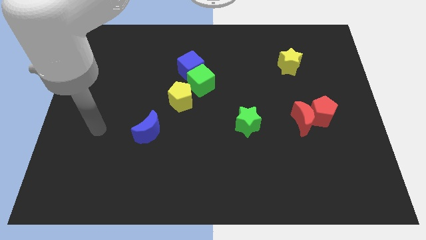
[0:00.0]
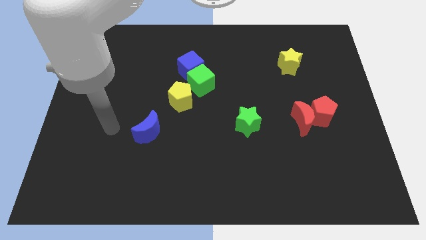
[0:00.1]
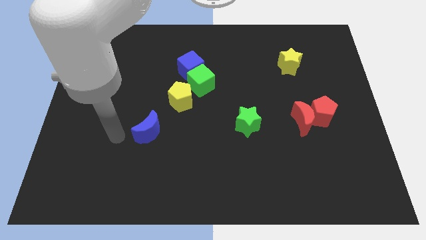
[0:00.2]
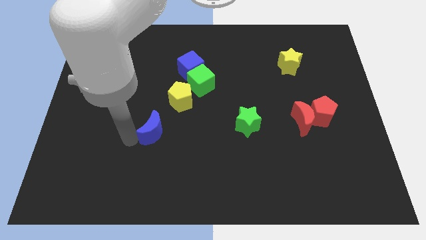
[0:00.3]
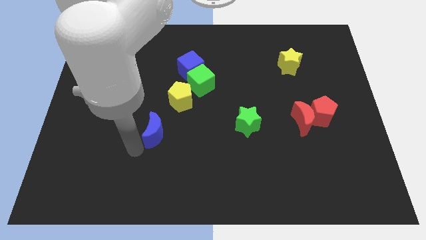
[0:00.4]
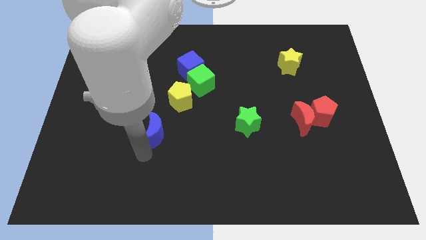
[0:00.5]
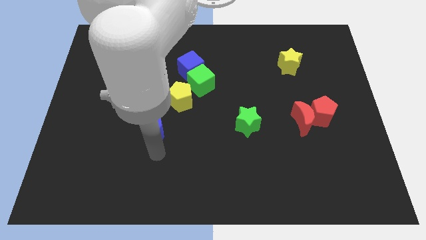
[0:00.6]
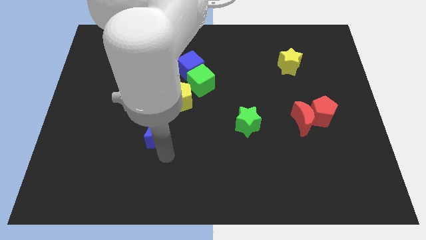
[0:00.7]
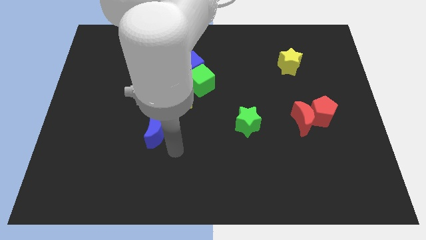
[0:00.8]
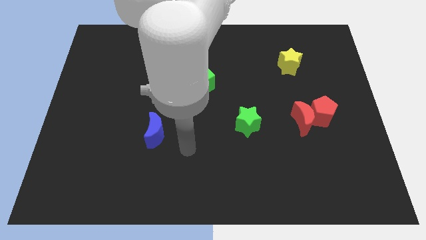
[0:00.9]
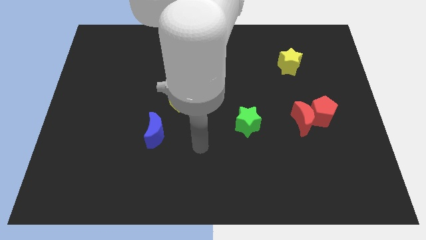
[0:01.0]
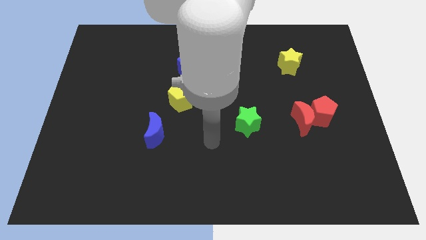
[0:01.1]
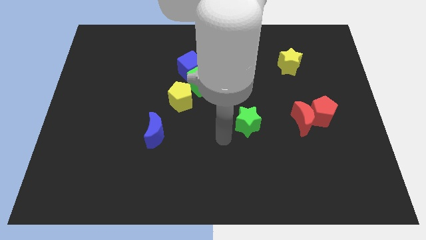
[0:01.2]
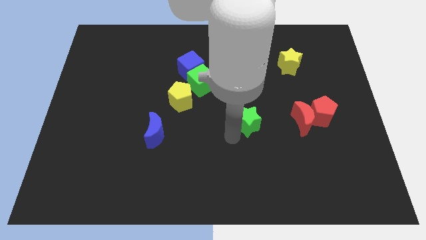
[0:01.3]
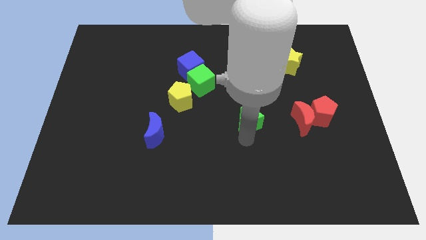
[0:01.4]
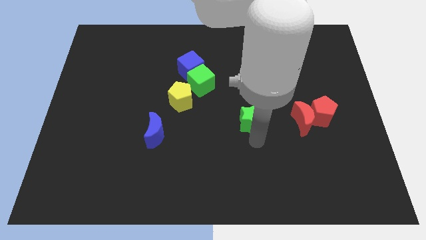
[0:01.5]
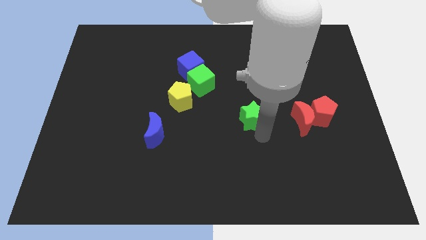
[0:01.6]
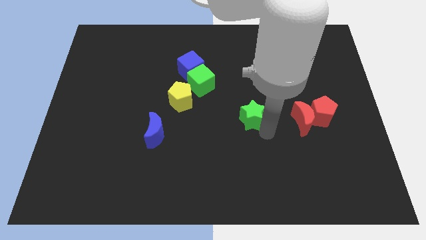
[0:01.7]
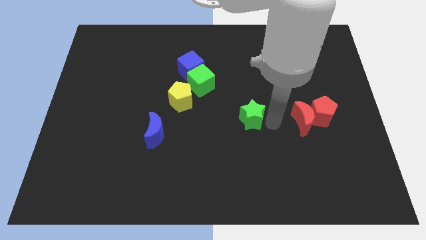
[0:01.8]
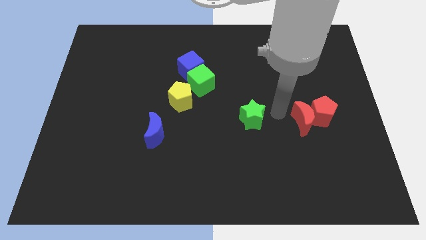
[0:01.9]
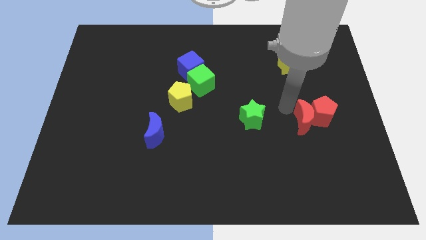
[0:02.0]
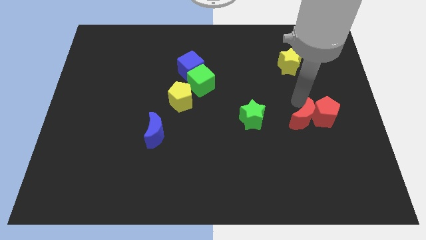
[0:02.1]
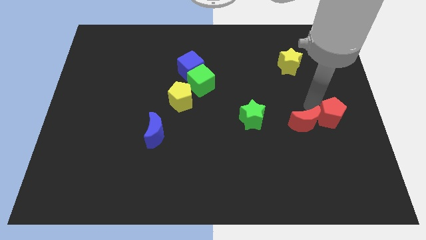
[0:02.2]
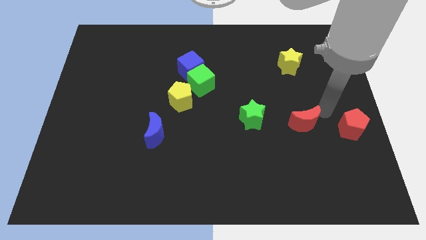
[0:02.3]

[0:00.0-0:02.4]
move the red moon away from the red pentagon

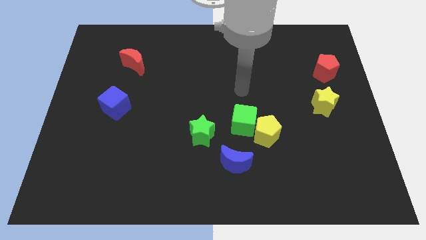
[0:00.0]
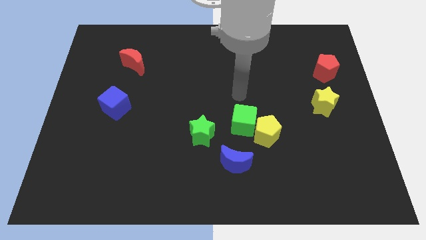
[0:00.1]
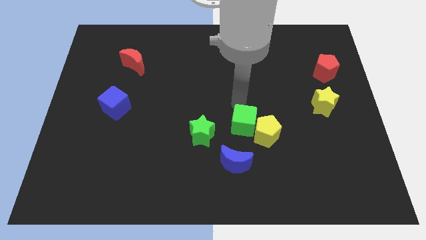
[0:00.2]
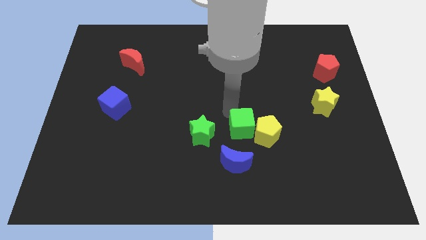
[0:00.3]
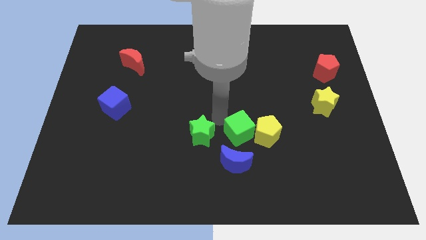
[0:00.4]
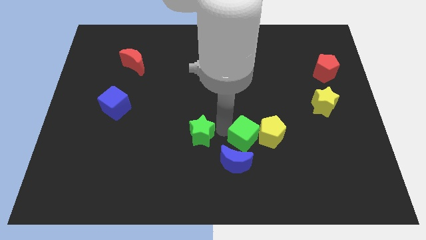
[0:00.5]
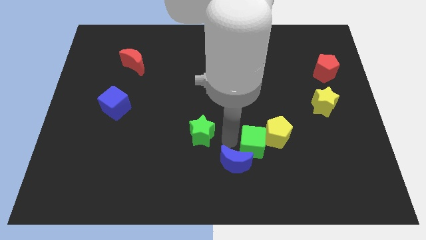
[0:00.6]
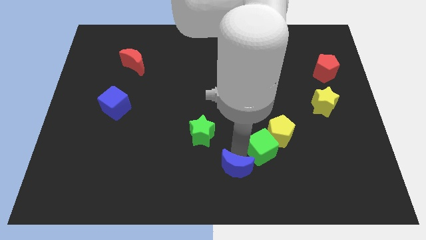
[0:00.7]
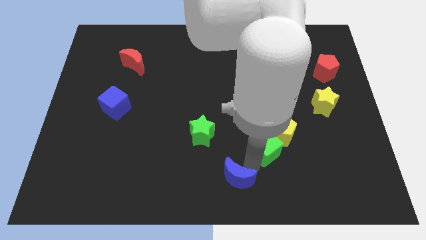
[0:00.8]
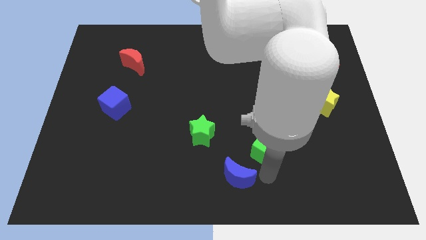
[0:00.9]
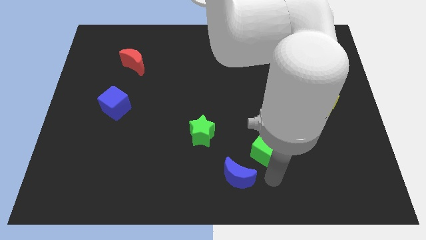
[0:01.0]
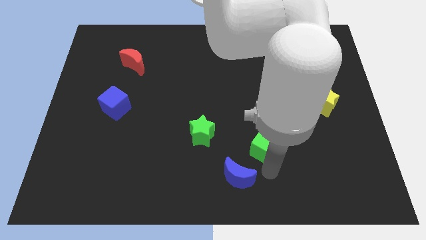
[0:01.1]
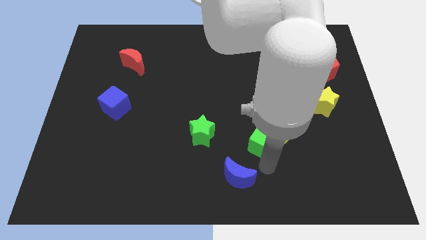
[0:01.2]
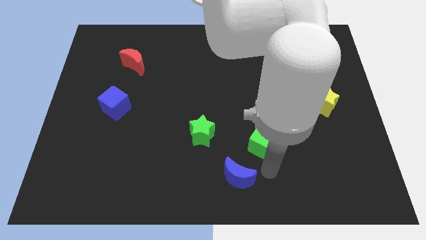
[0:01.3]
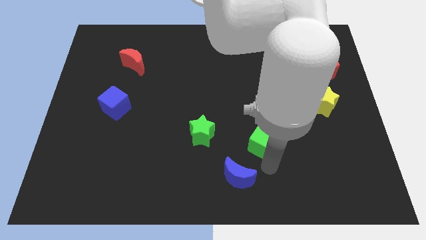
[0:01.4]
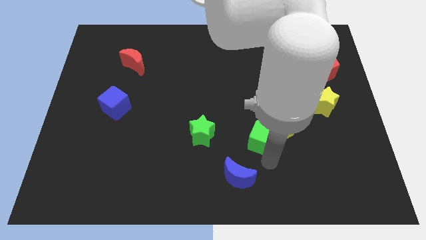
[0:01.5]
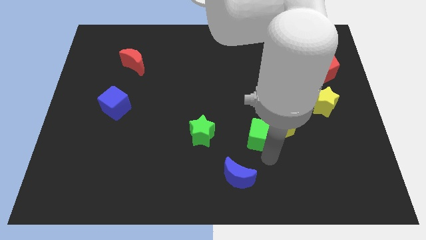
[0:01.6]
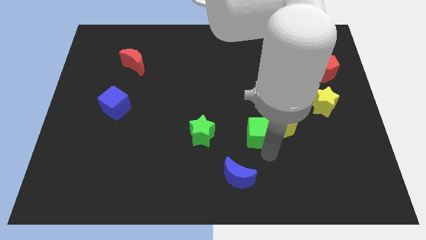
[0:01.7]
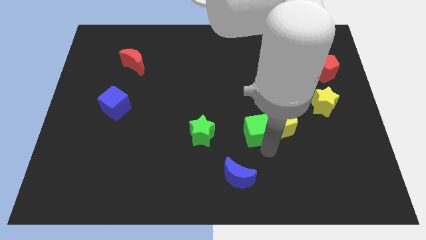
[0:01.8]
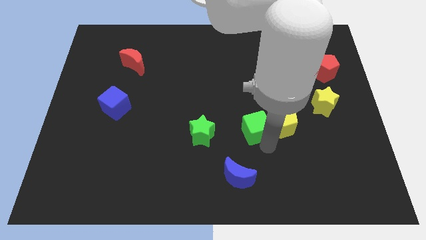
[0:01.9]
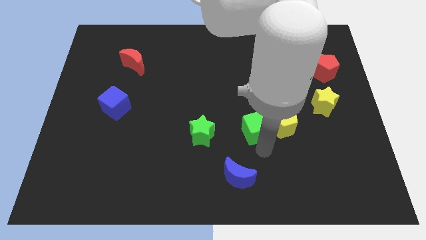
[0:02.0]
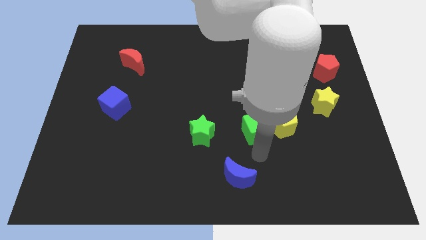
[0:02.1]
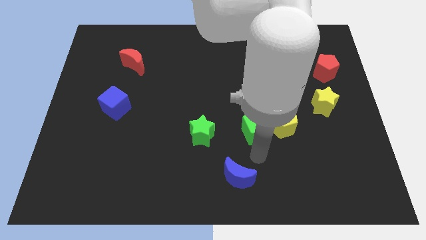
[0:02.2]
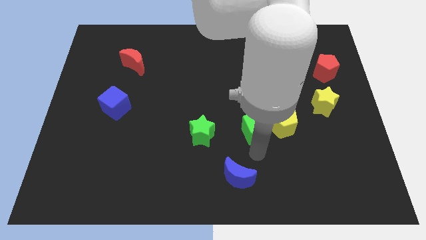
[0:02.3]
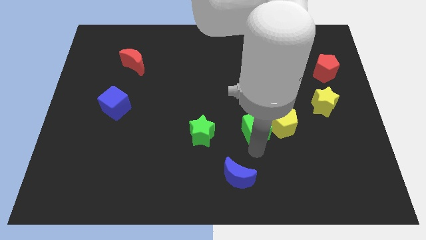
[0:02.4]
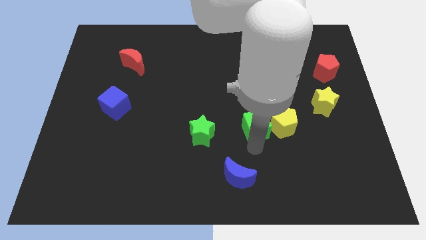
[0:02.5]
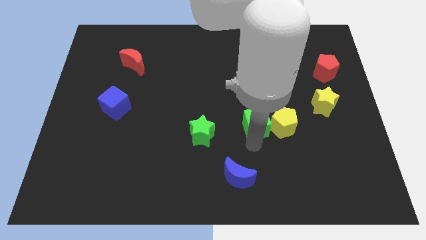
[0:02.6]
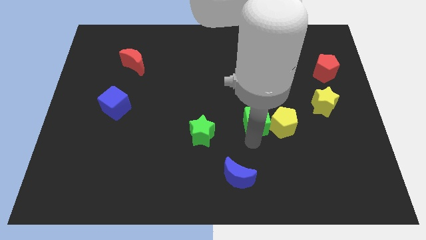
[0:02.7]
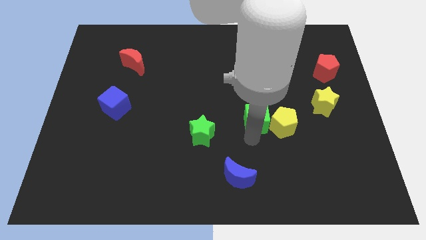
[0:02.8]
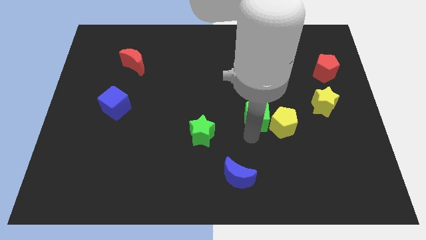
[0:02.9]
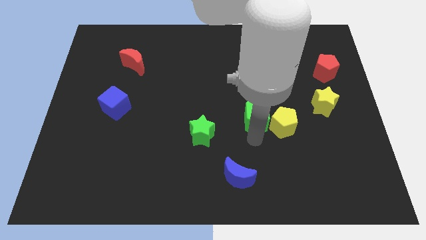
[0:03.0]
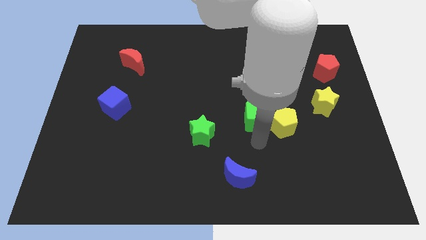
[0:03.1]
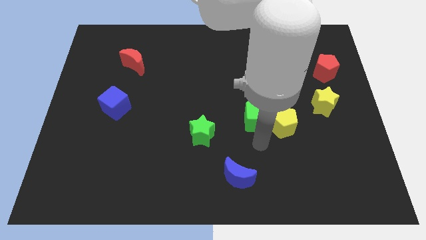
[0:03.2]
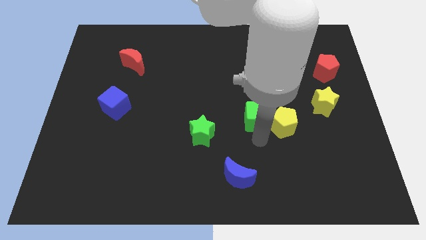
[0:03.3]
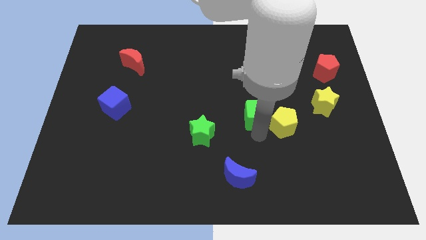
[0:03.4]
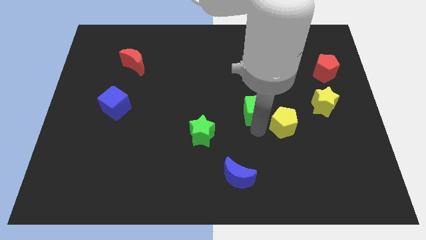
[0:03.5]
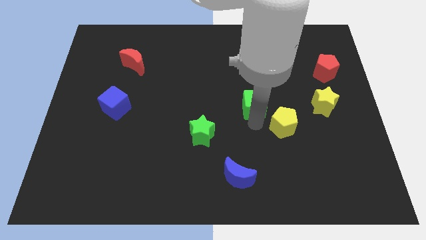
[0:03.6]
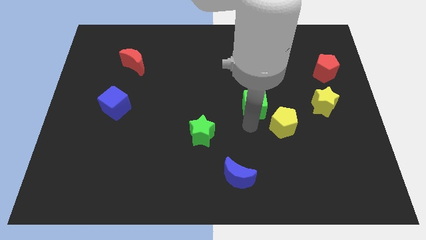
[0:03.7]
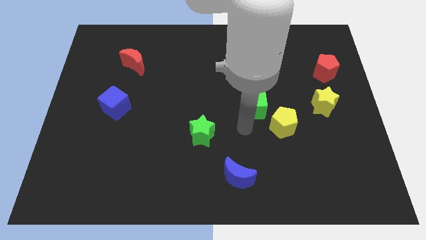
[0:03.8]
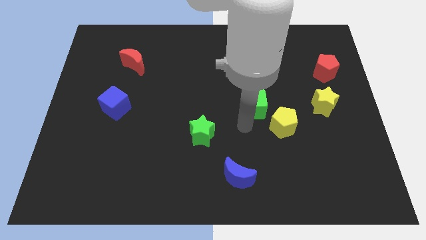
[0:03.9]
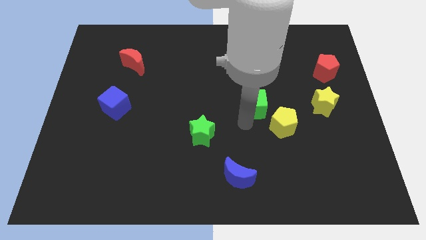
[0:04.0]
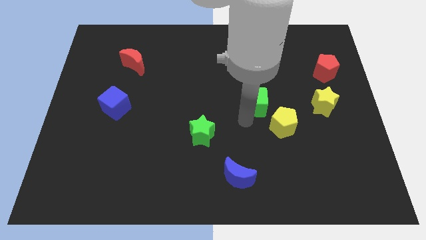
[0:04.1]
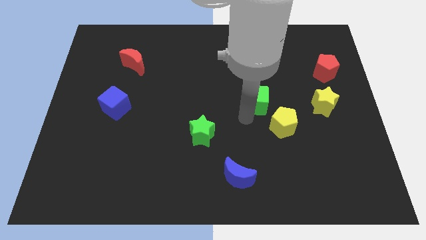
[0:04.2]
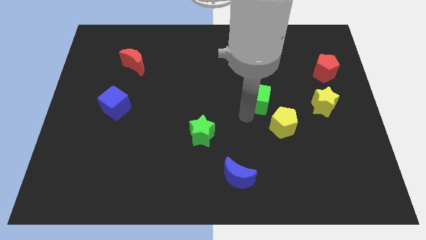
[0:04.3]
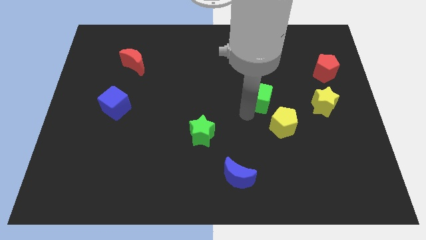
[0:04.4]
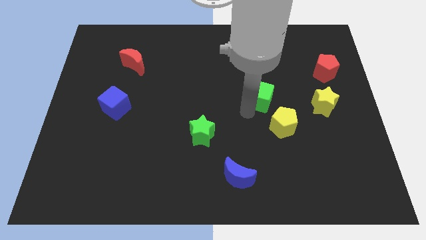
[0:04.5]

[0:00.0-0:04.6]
separate the green cube from the yellow pentagon and green star

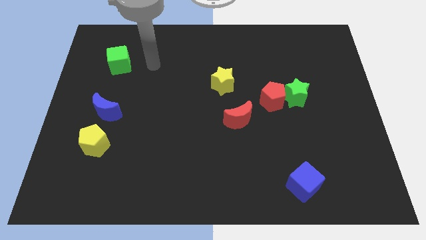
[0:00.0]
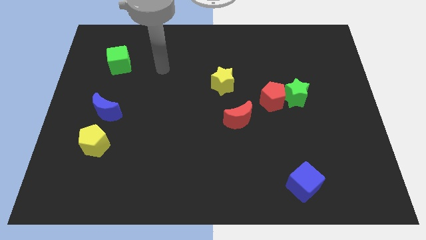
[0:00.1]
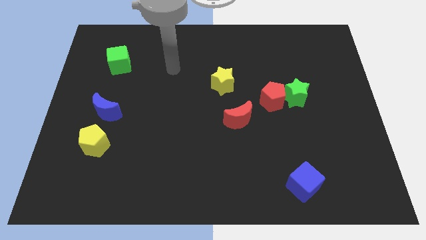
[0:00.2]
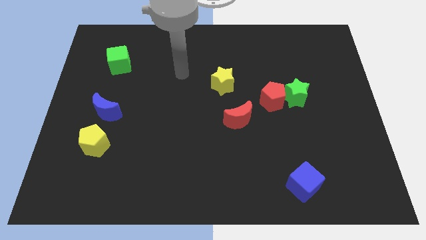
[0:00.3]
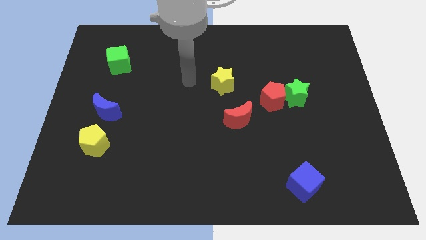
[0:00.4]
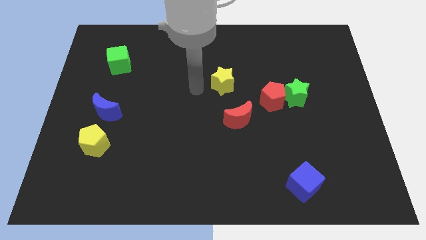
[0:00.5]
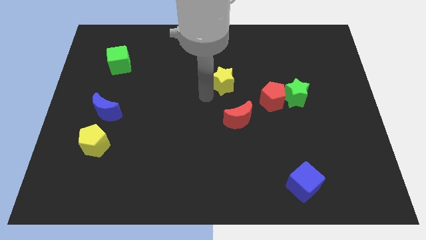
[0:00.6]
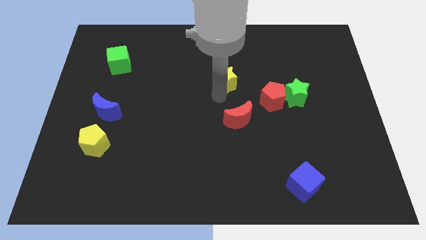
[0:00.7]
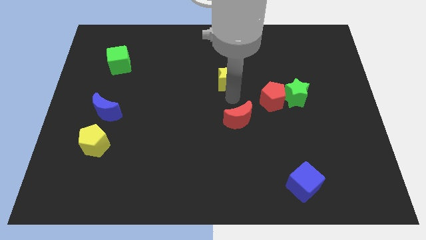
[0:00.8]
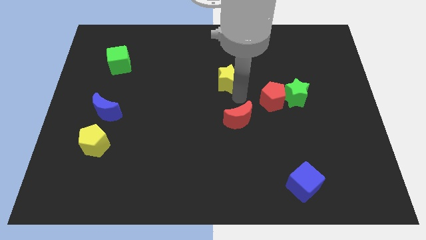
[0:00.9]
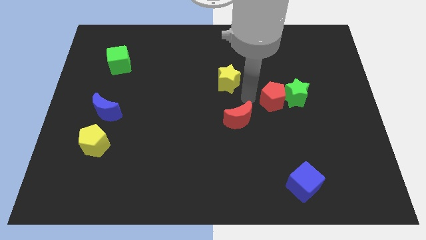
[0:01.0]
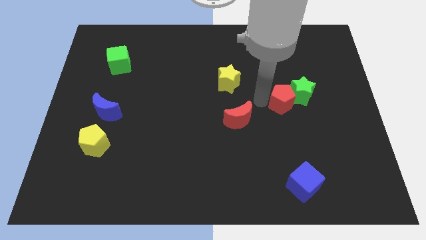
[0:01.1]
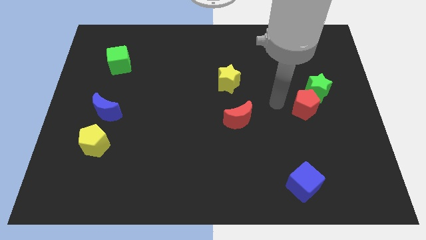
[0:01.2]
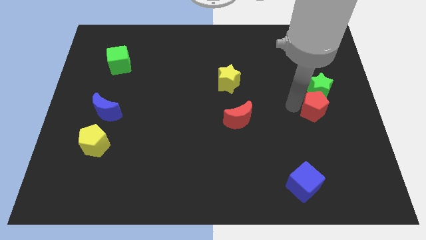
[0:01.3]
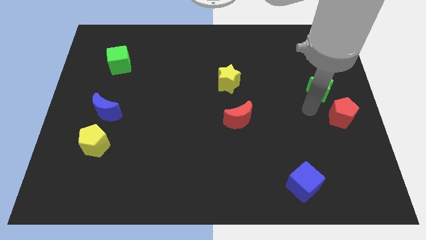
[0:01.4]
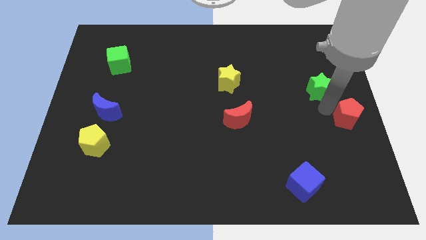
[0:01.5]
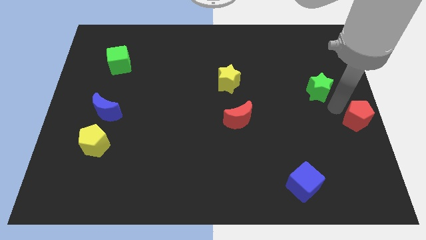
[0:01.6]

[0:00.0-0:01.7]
pull the green star apart from the red pentagon

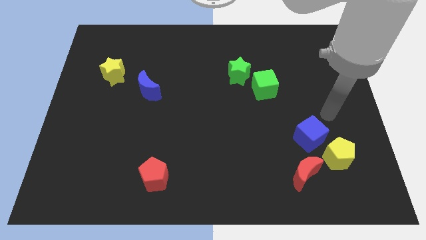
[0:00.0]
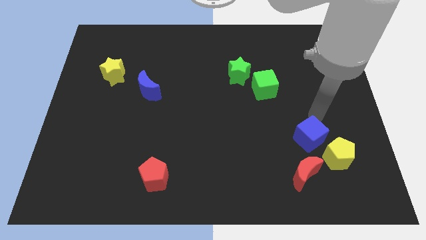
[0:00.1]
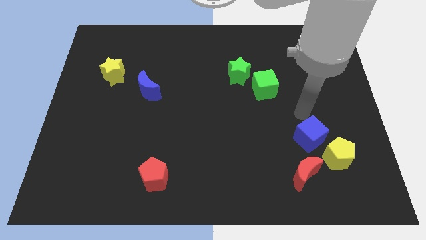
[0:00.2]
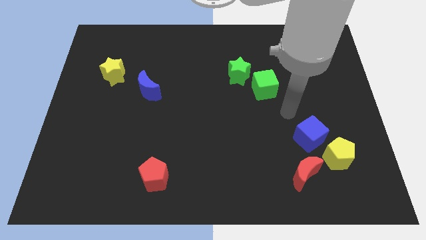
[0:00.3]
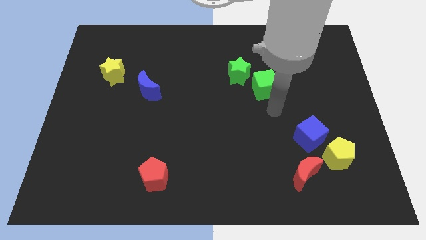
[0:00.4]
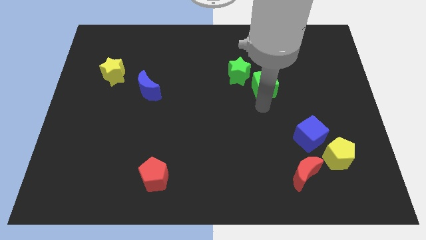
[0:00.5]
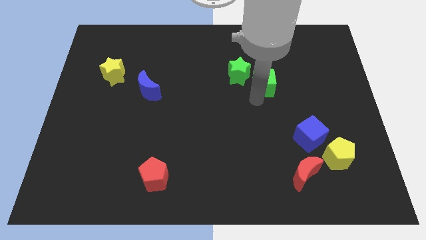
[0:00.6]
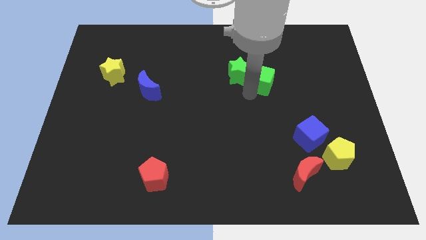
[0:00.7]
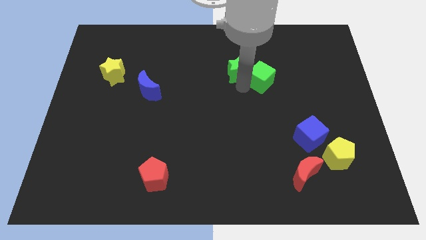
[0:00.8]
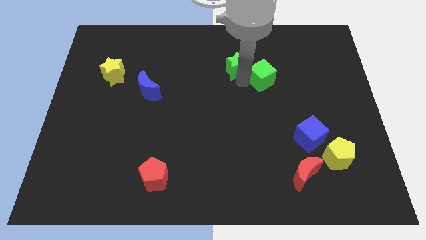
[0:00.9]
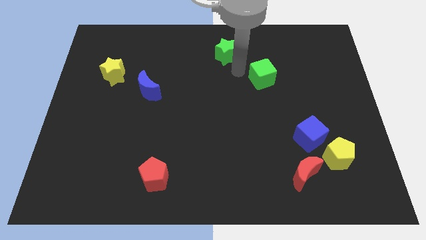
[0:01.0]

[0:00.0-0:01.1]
separate the green cube from the green star
